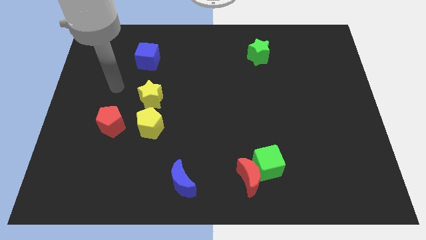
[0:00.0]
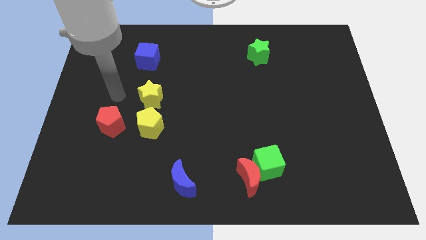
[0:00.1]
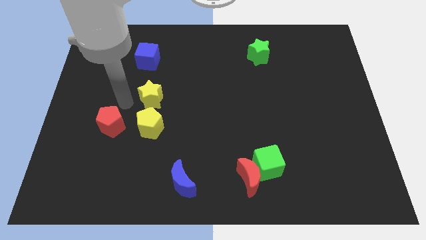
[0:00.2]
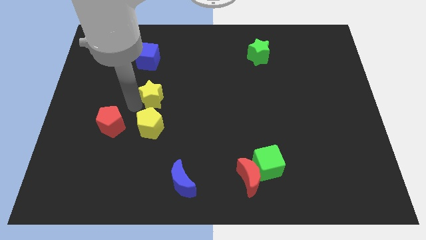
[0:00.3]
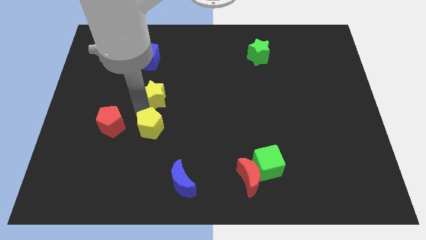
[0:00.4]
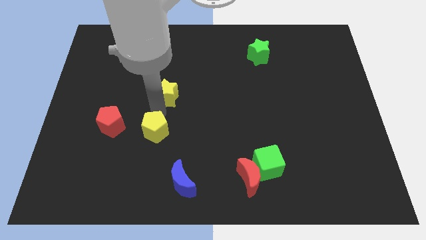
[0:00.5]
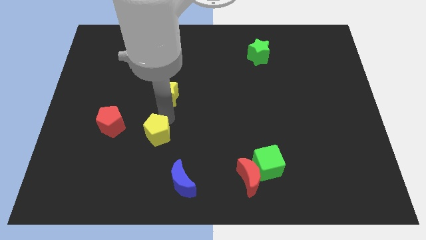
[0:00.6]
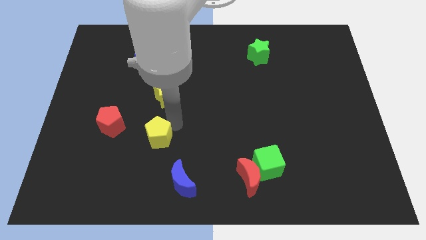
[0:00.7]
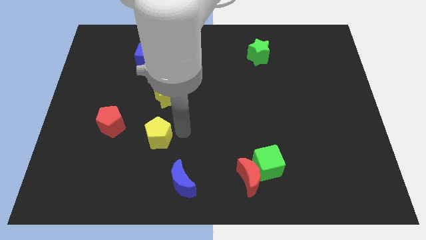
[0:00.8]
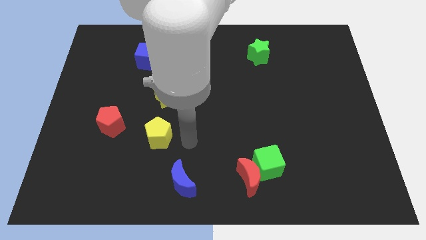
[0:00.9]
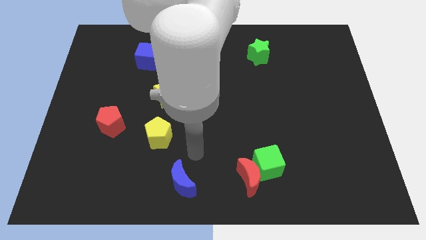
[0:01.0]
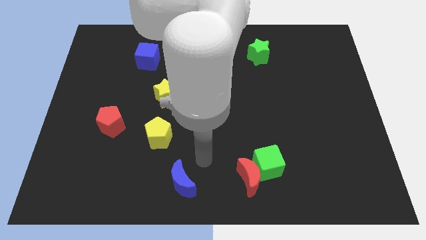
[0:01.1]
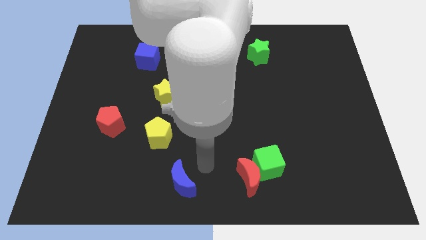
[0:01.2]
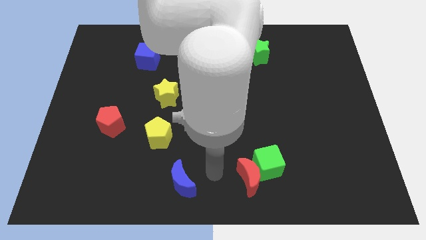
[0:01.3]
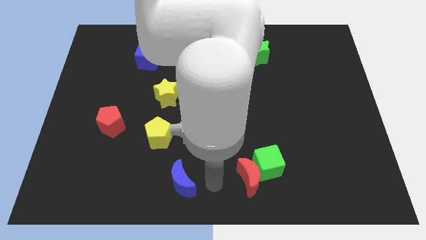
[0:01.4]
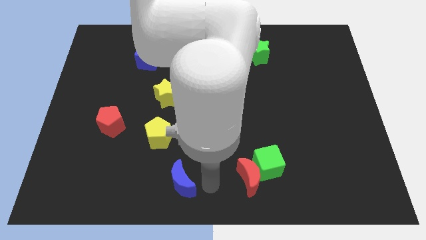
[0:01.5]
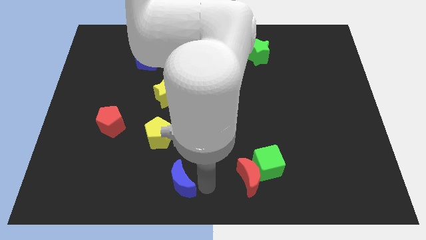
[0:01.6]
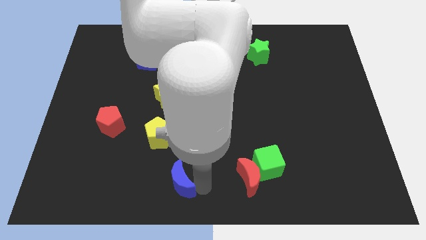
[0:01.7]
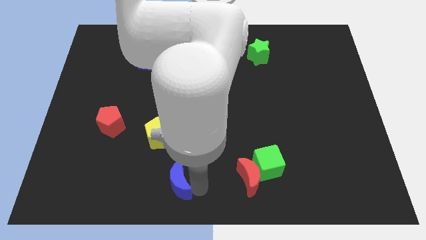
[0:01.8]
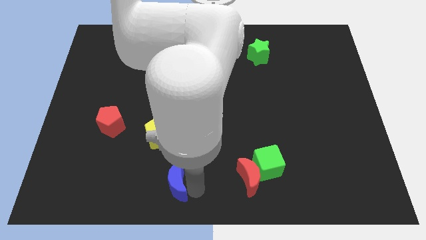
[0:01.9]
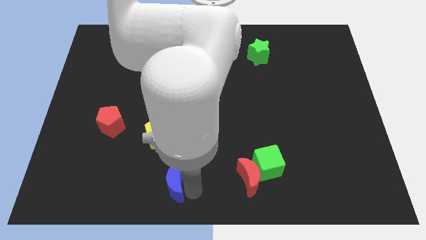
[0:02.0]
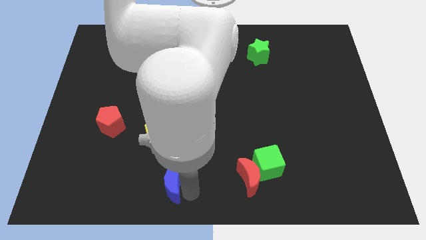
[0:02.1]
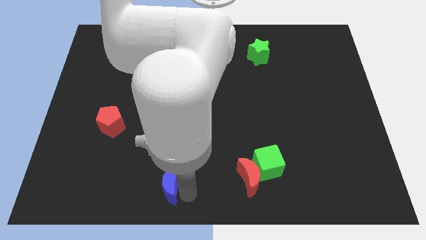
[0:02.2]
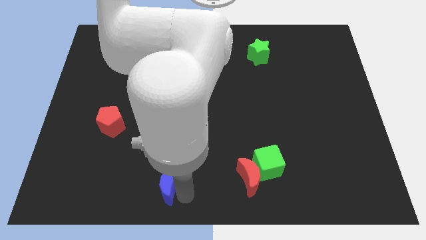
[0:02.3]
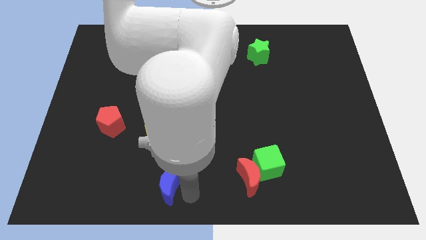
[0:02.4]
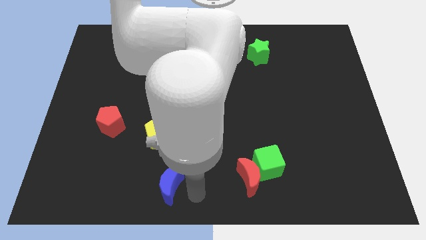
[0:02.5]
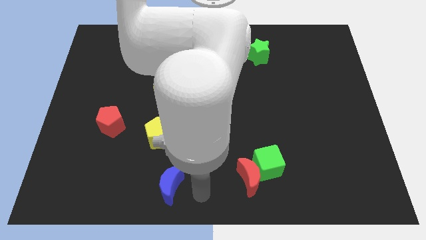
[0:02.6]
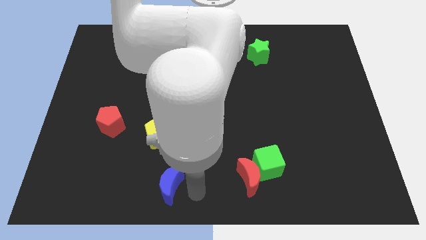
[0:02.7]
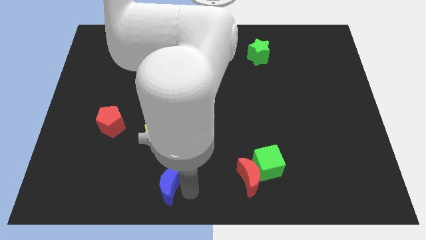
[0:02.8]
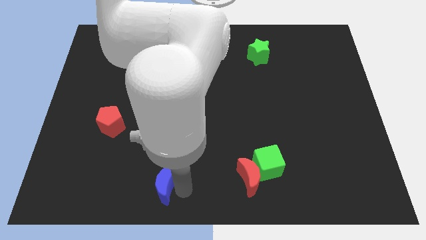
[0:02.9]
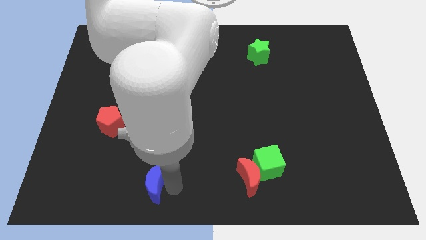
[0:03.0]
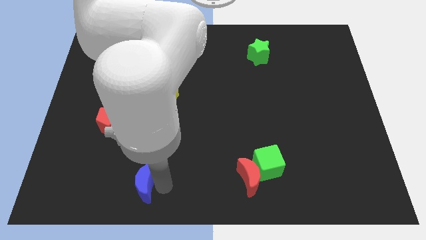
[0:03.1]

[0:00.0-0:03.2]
slightly push the blue moon left

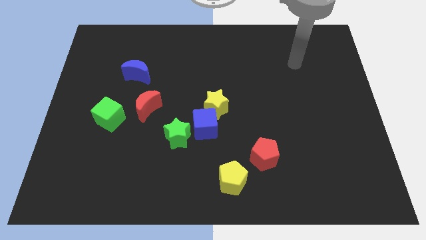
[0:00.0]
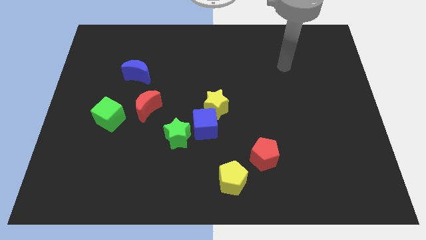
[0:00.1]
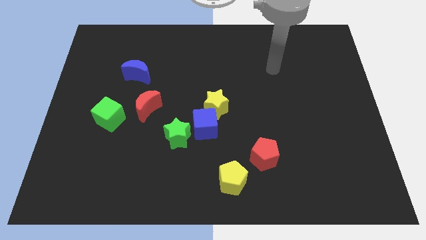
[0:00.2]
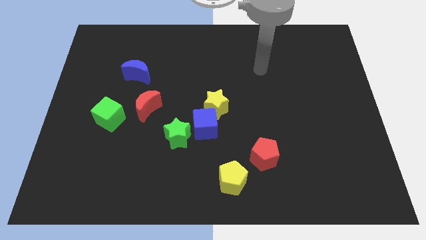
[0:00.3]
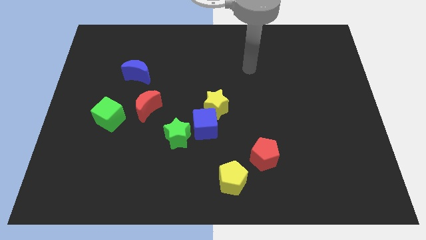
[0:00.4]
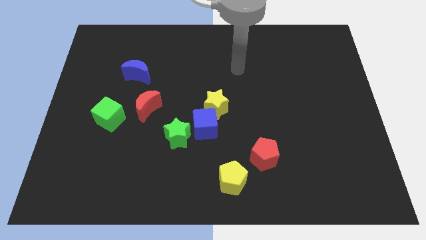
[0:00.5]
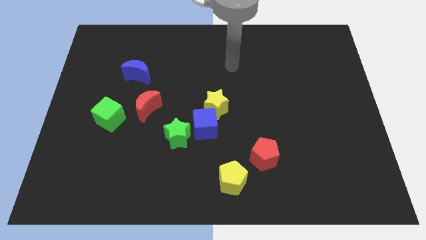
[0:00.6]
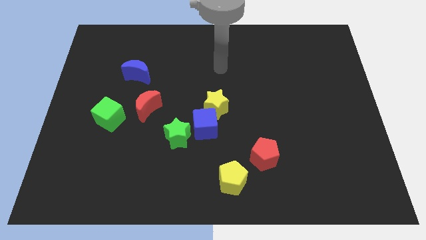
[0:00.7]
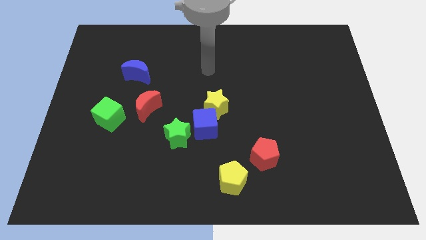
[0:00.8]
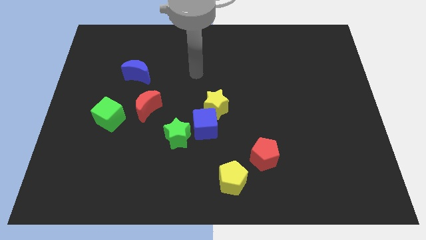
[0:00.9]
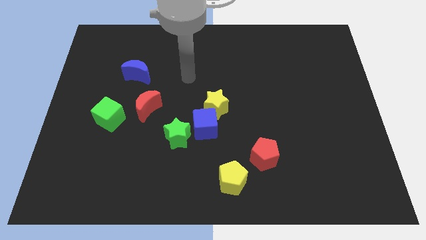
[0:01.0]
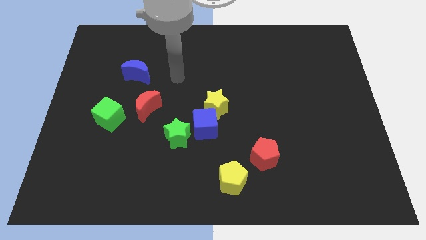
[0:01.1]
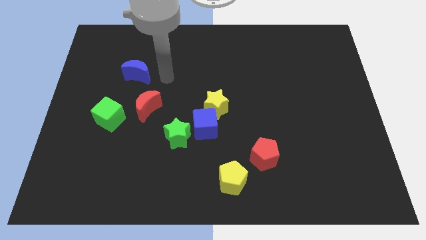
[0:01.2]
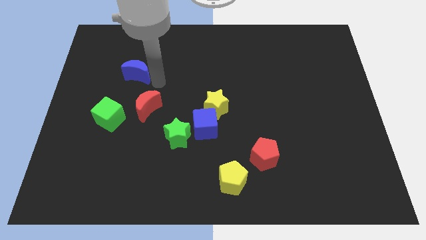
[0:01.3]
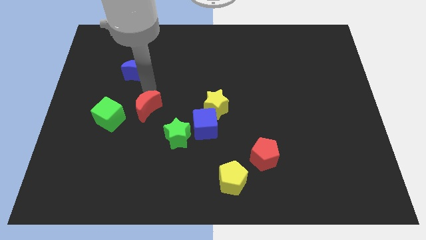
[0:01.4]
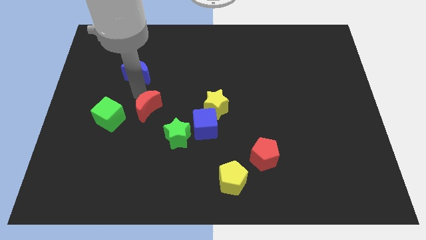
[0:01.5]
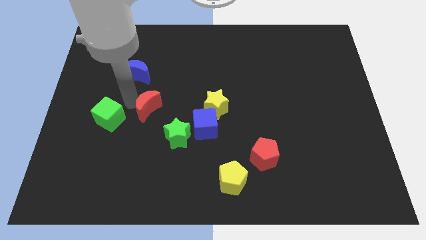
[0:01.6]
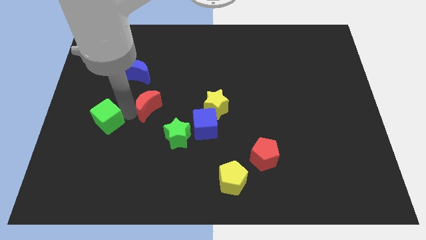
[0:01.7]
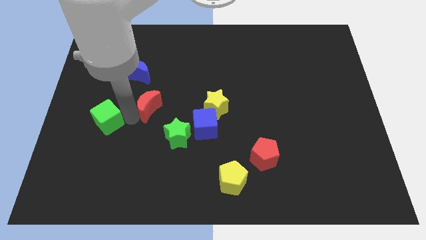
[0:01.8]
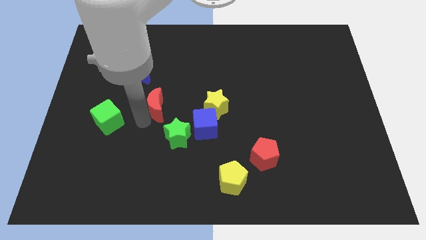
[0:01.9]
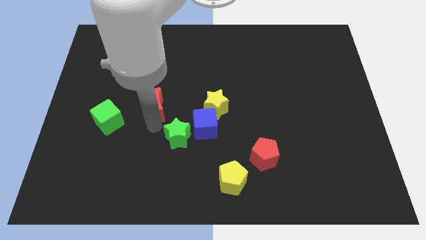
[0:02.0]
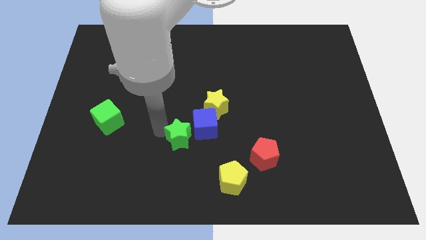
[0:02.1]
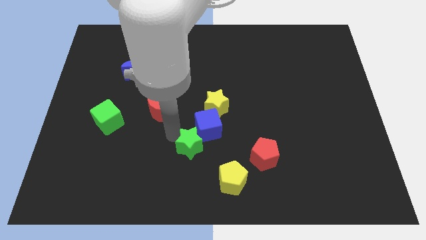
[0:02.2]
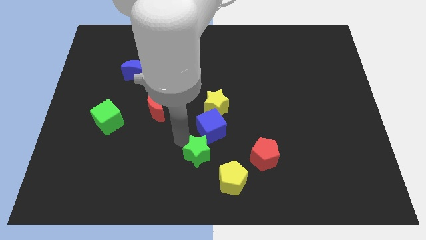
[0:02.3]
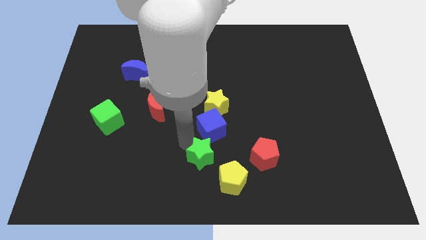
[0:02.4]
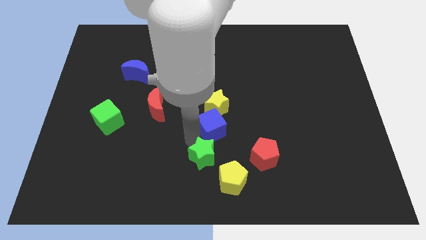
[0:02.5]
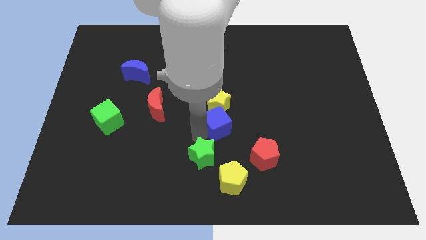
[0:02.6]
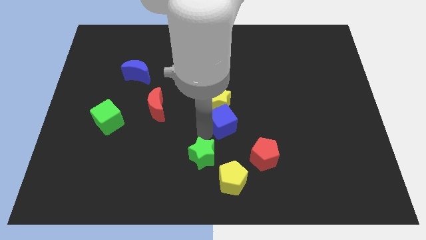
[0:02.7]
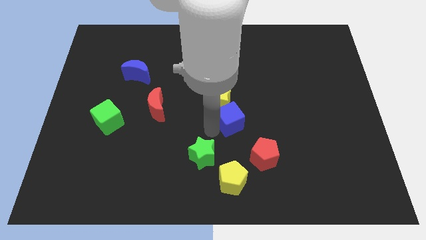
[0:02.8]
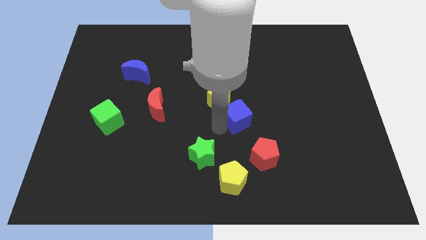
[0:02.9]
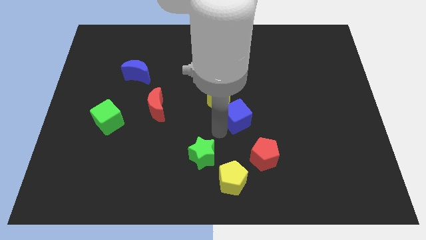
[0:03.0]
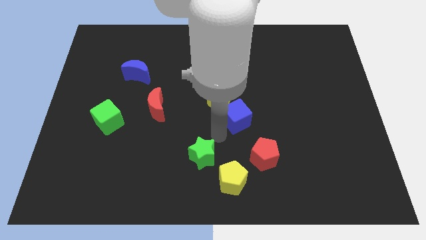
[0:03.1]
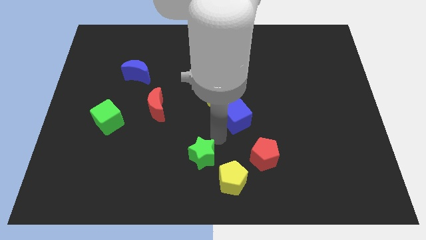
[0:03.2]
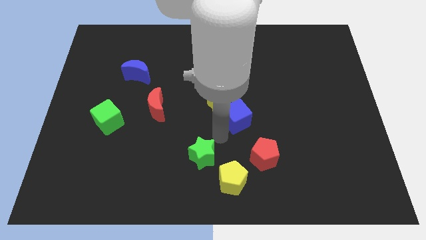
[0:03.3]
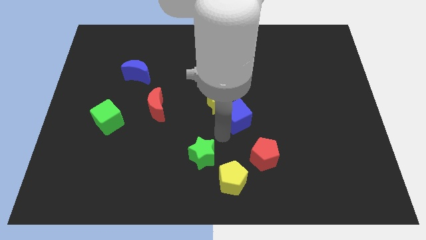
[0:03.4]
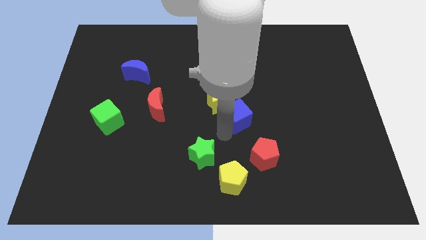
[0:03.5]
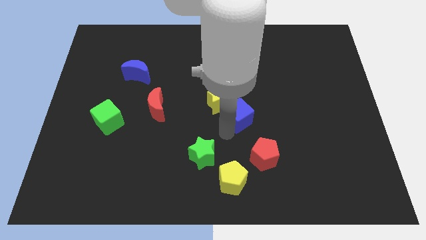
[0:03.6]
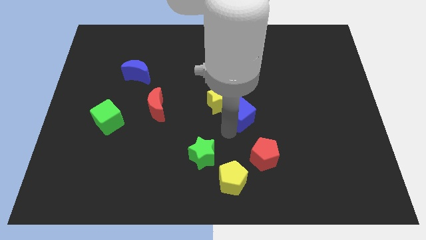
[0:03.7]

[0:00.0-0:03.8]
move the blue cube upwards and right diagonally a little

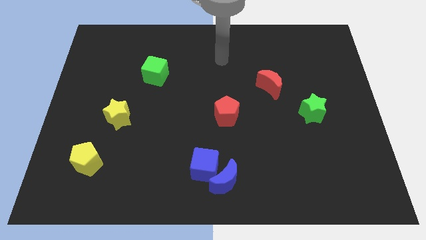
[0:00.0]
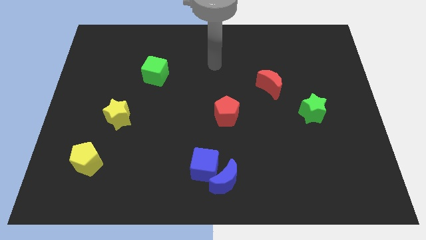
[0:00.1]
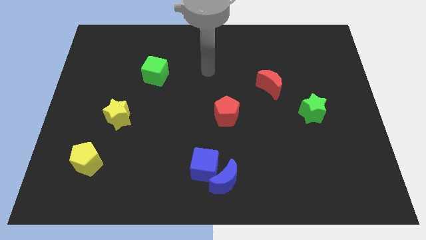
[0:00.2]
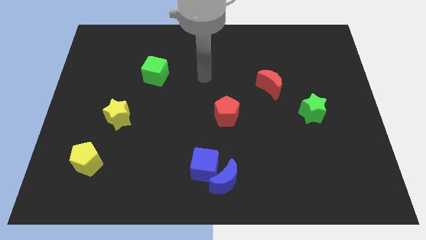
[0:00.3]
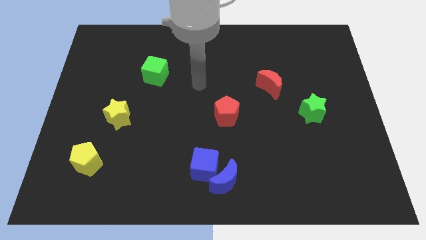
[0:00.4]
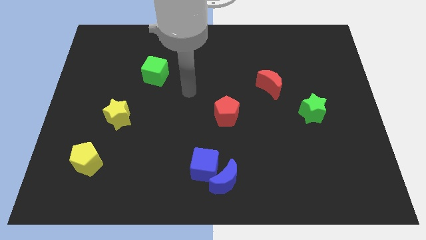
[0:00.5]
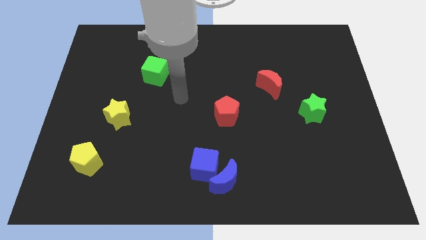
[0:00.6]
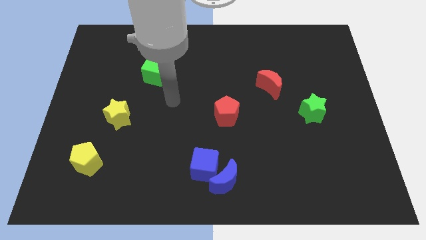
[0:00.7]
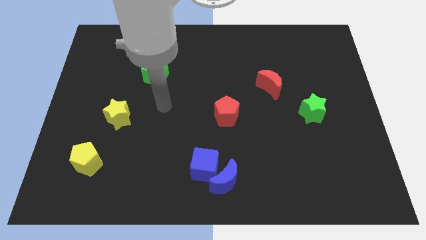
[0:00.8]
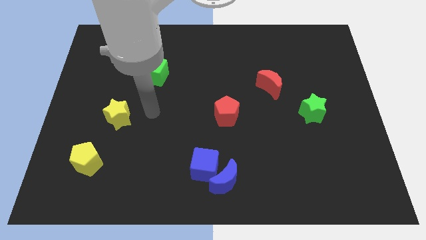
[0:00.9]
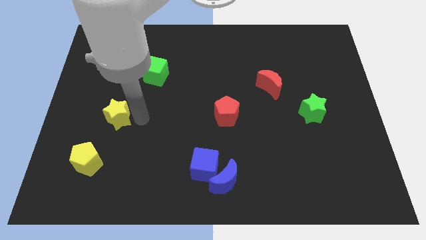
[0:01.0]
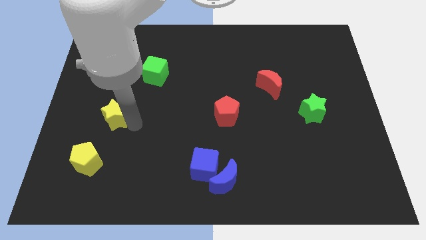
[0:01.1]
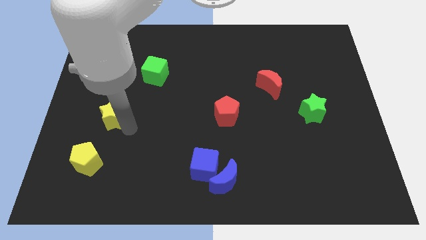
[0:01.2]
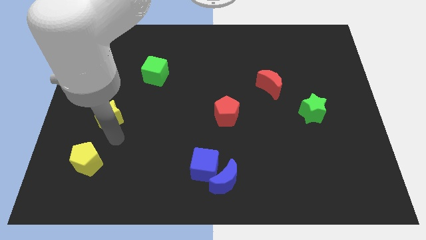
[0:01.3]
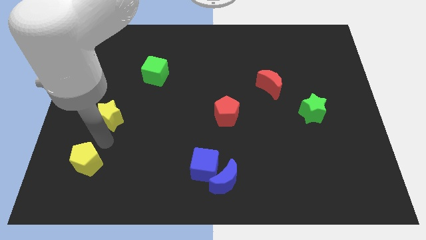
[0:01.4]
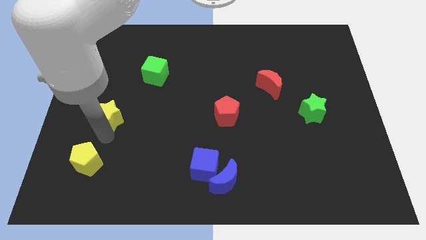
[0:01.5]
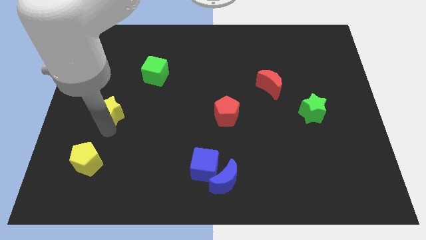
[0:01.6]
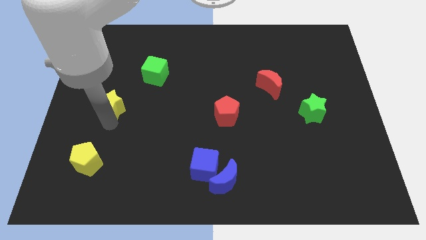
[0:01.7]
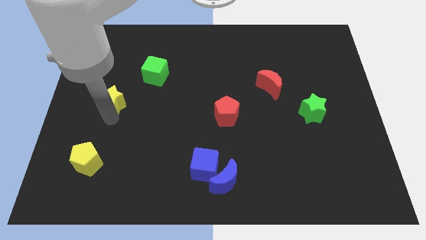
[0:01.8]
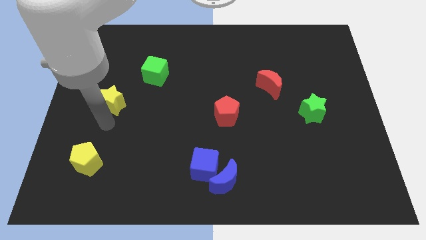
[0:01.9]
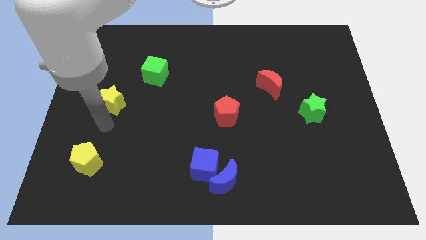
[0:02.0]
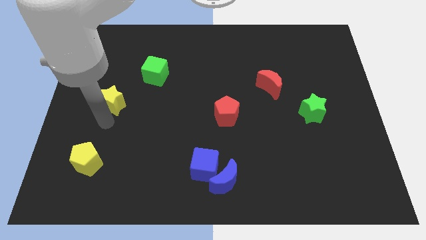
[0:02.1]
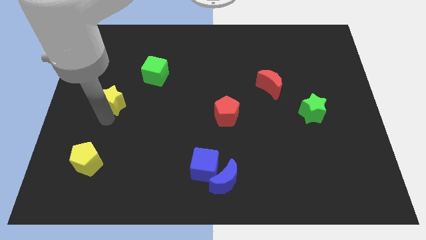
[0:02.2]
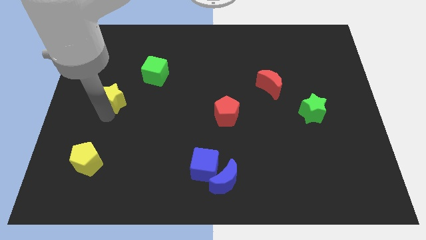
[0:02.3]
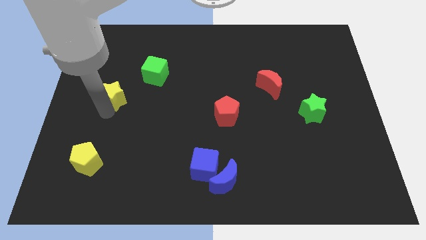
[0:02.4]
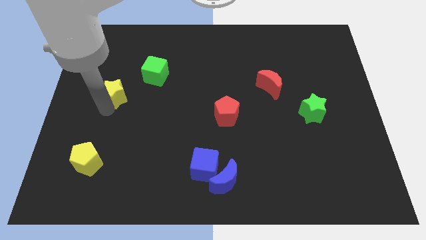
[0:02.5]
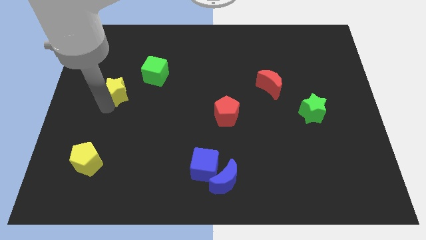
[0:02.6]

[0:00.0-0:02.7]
push the yellow star up slightly
